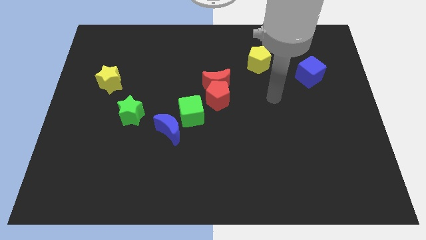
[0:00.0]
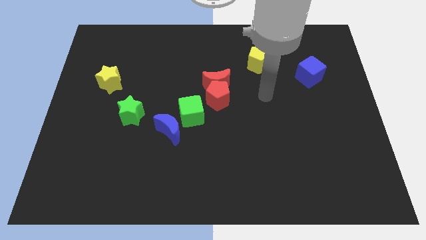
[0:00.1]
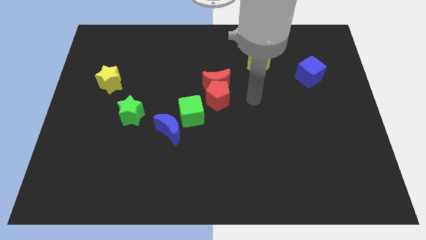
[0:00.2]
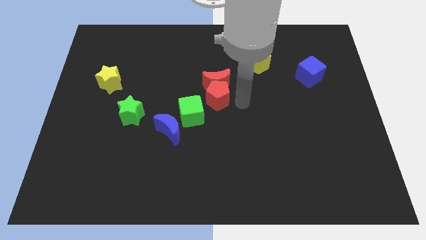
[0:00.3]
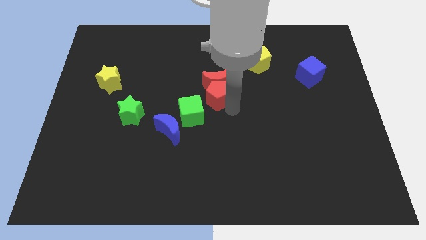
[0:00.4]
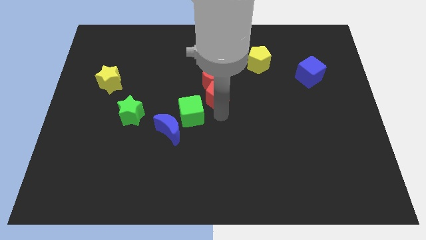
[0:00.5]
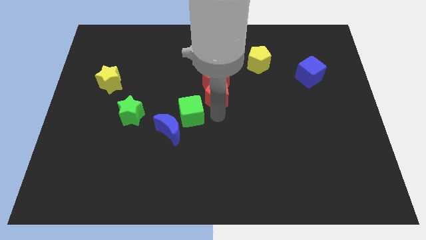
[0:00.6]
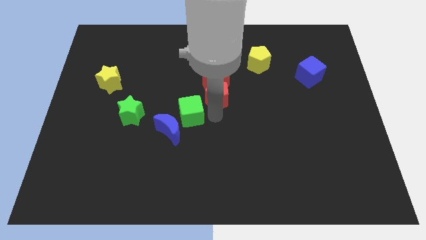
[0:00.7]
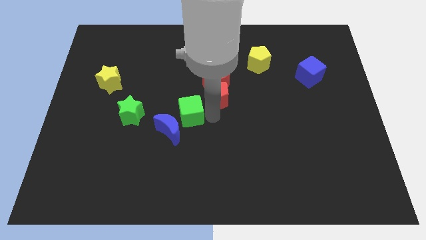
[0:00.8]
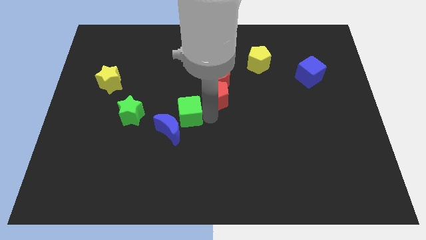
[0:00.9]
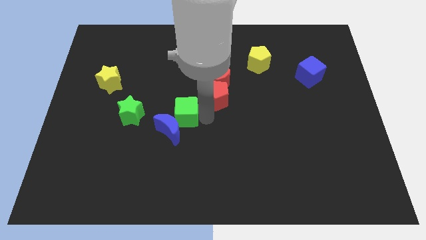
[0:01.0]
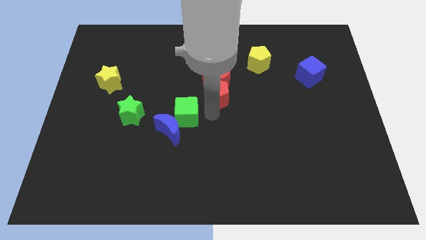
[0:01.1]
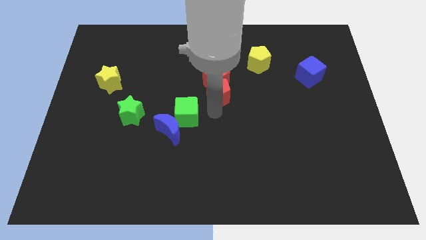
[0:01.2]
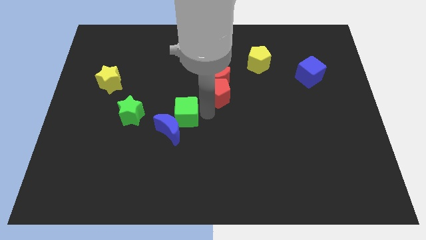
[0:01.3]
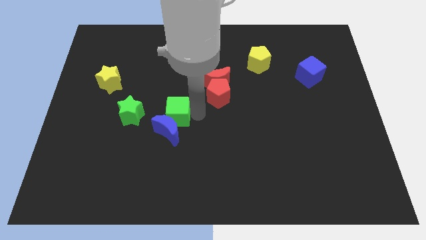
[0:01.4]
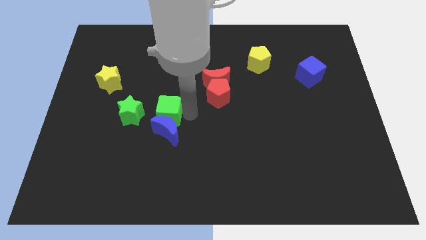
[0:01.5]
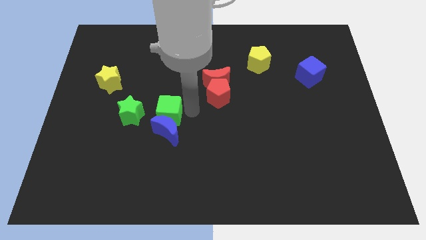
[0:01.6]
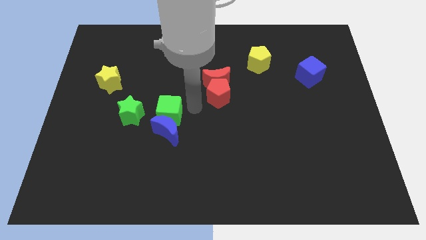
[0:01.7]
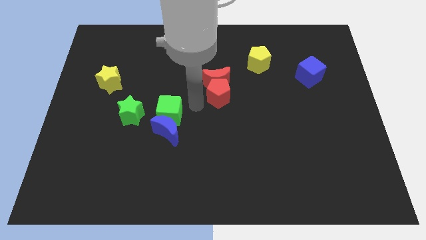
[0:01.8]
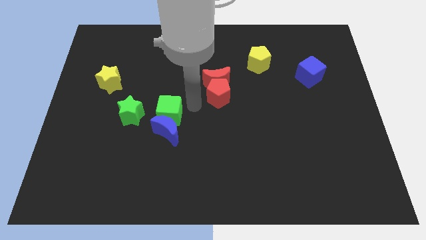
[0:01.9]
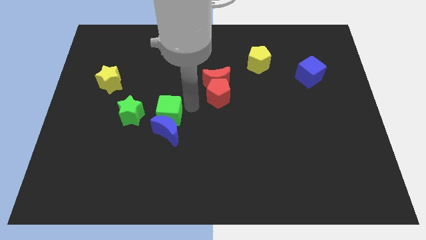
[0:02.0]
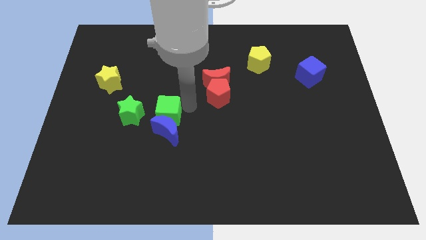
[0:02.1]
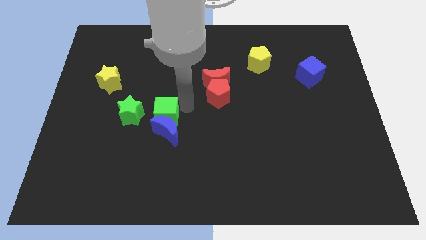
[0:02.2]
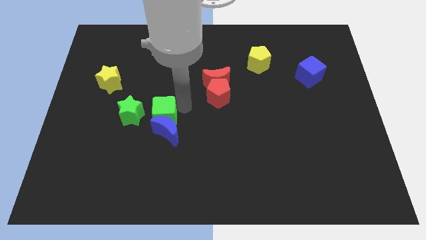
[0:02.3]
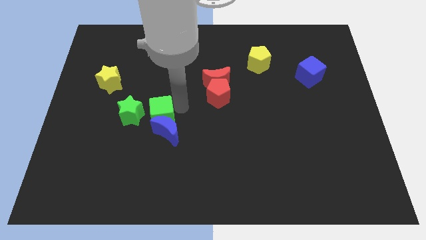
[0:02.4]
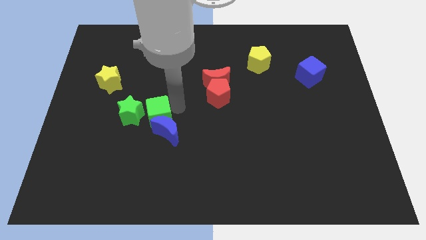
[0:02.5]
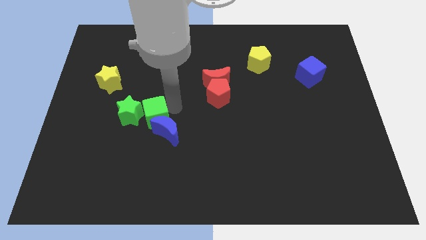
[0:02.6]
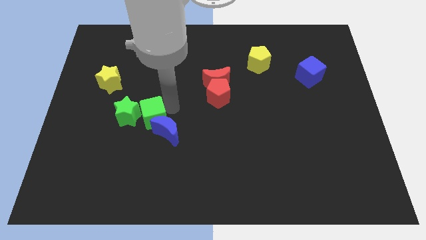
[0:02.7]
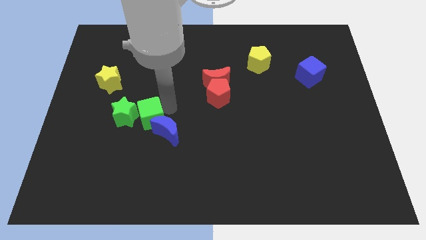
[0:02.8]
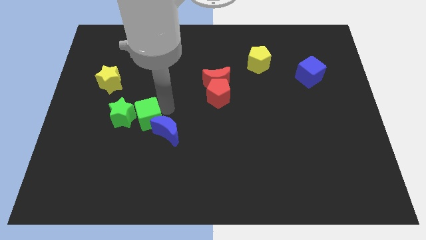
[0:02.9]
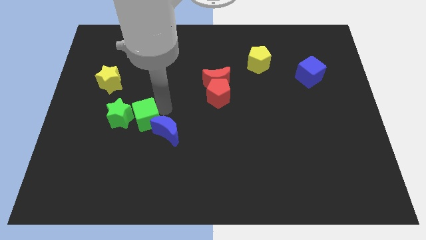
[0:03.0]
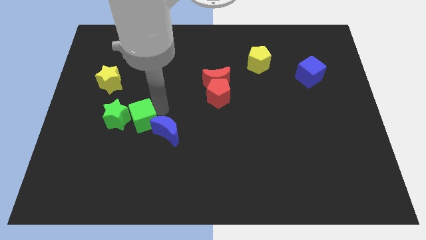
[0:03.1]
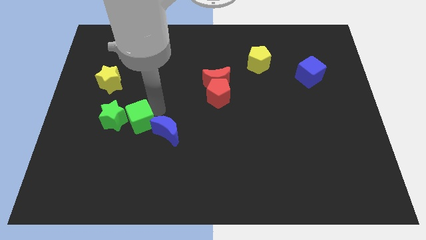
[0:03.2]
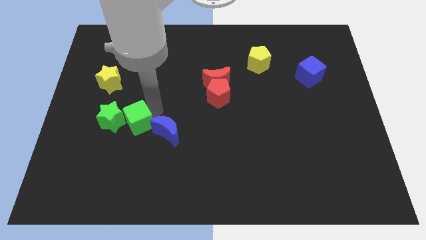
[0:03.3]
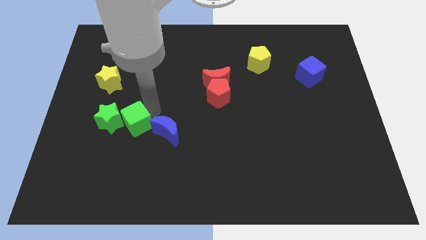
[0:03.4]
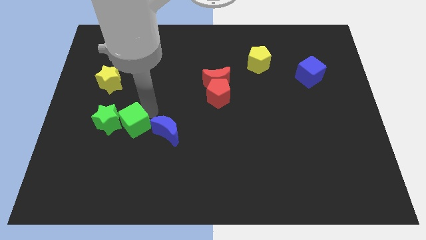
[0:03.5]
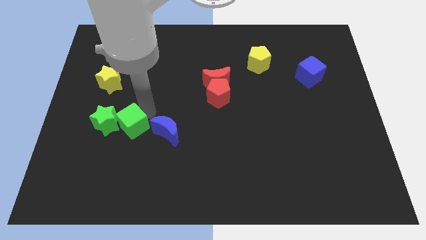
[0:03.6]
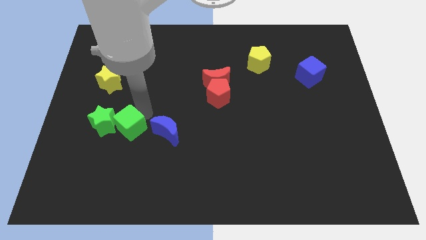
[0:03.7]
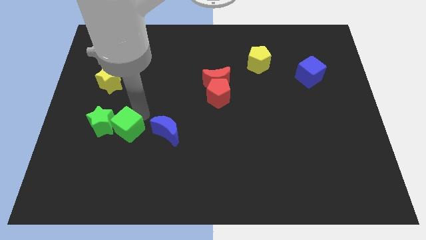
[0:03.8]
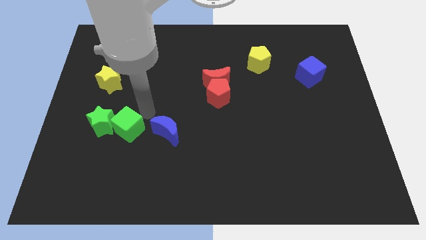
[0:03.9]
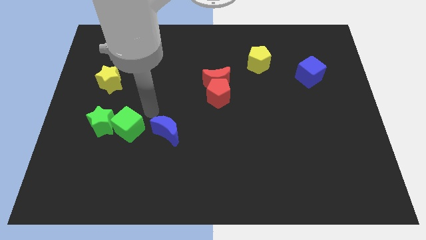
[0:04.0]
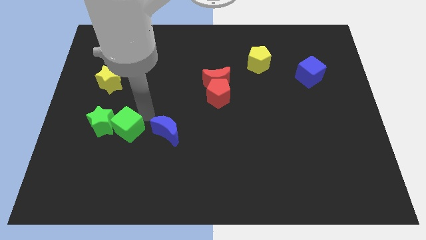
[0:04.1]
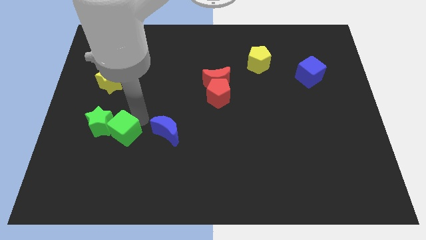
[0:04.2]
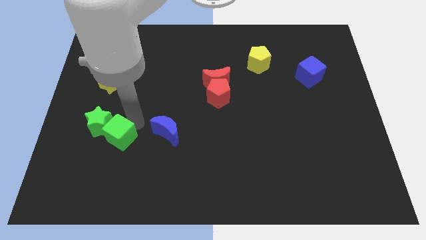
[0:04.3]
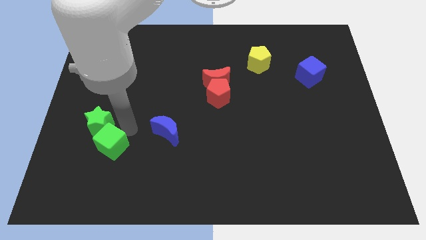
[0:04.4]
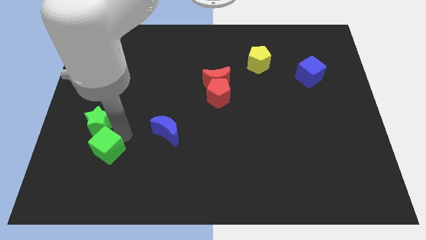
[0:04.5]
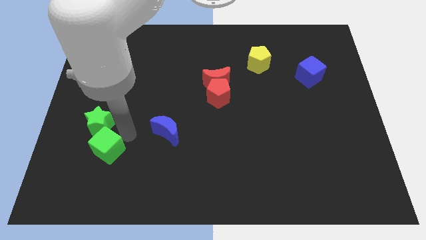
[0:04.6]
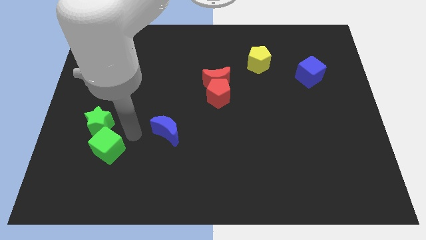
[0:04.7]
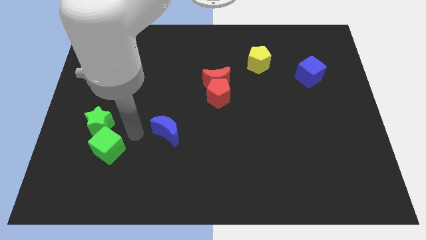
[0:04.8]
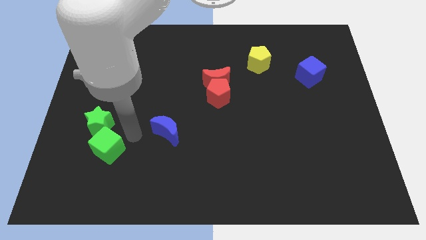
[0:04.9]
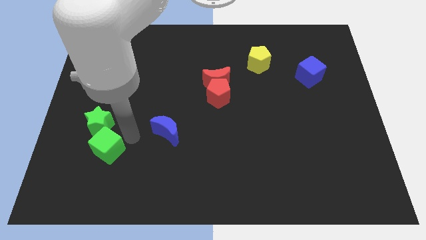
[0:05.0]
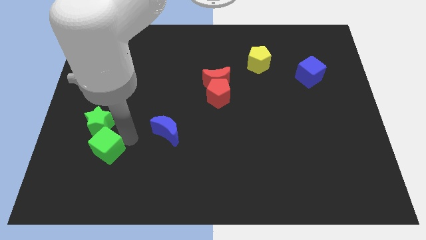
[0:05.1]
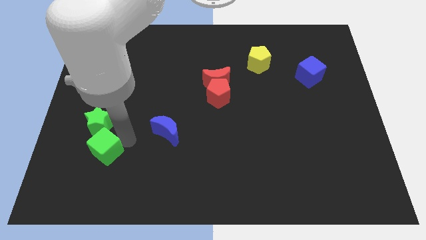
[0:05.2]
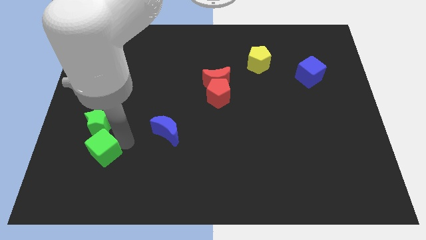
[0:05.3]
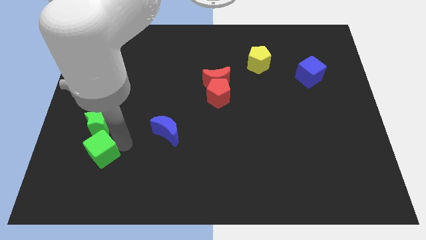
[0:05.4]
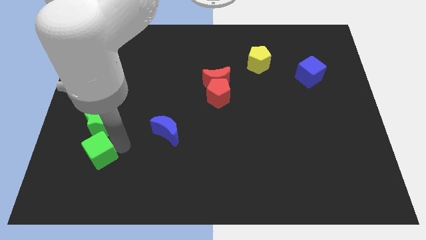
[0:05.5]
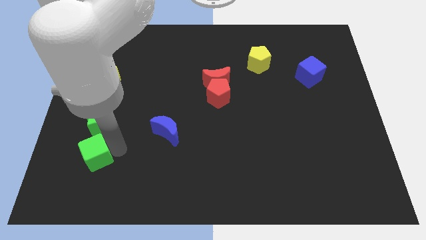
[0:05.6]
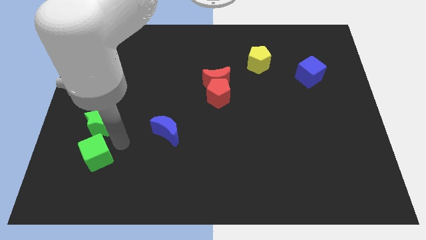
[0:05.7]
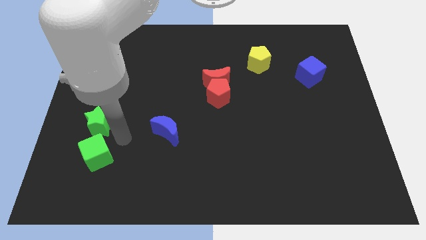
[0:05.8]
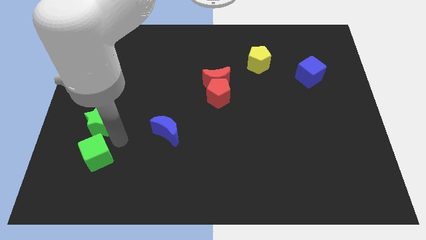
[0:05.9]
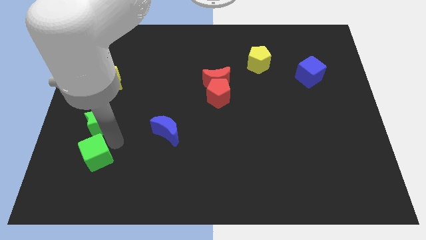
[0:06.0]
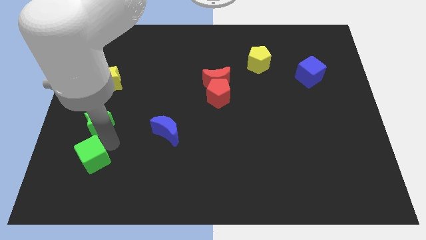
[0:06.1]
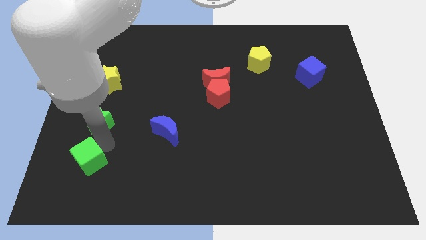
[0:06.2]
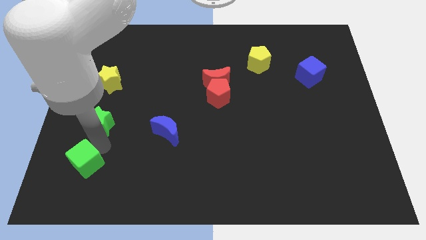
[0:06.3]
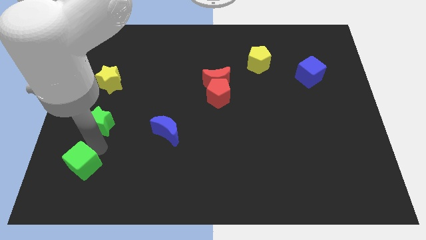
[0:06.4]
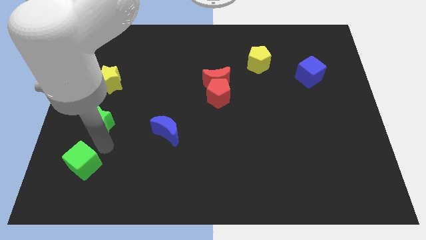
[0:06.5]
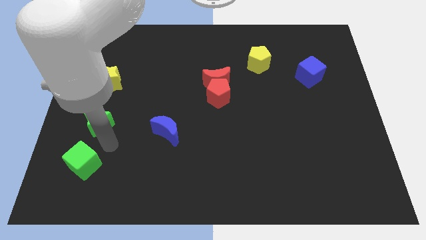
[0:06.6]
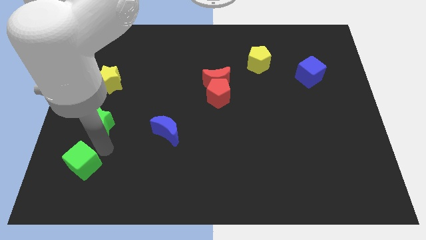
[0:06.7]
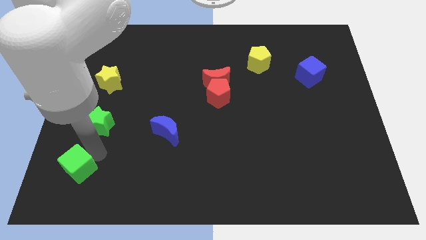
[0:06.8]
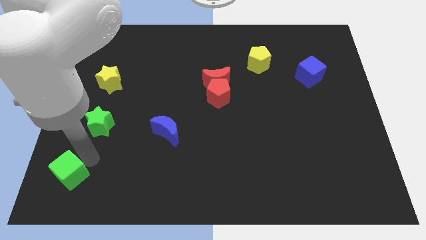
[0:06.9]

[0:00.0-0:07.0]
push the green cube to the lower left corner
